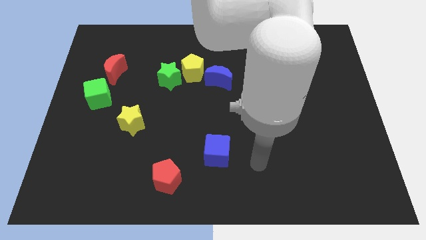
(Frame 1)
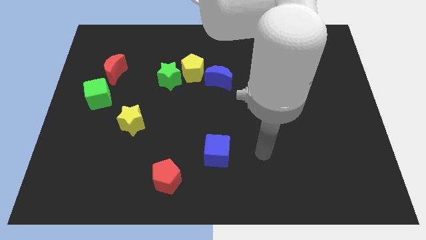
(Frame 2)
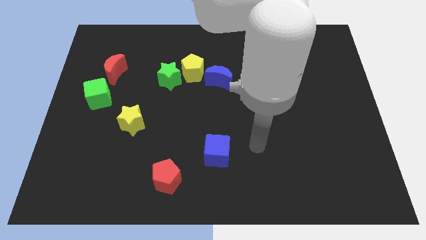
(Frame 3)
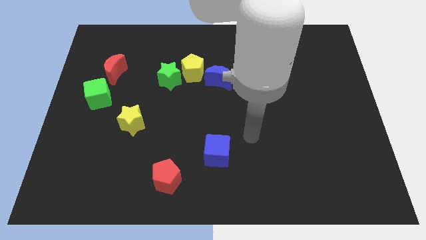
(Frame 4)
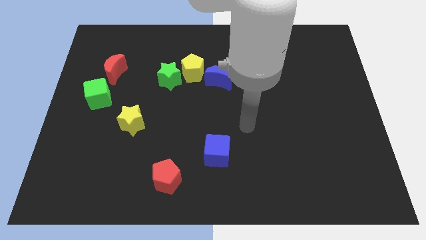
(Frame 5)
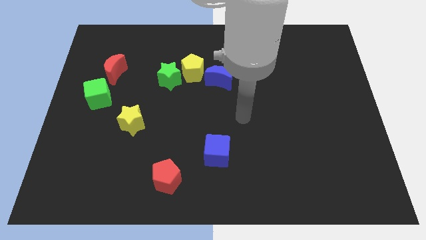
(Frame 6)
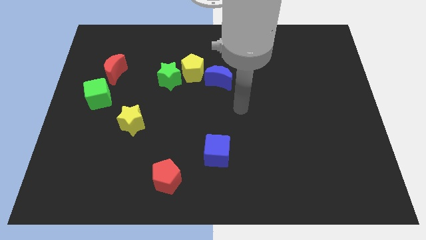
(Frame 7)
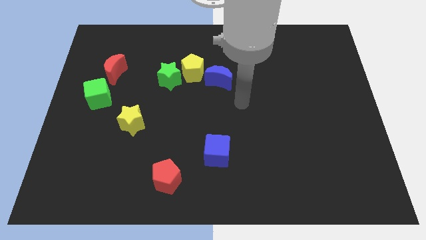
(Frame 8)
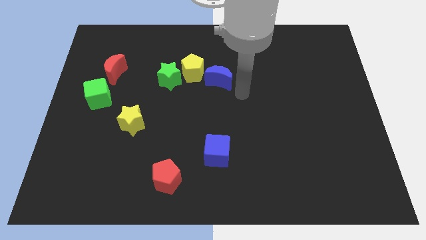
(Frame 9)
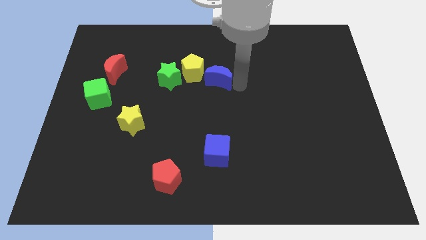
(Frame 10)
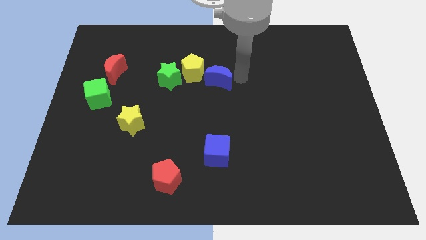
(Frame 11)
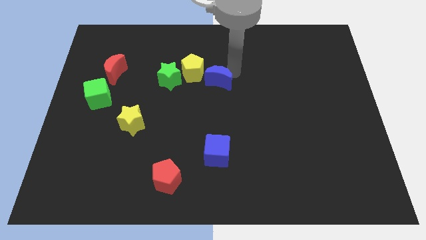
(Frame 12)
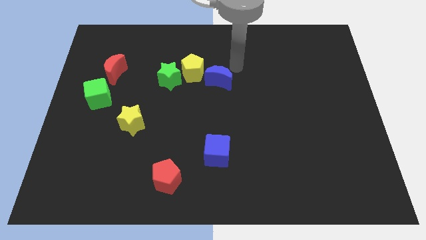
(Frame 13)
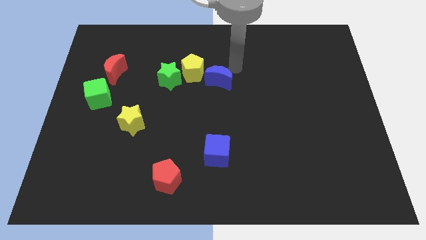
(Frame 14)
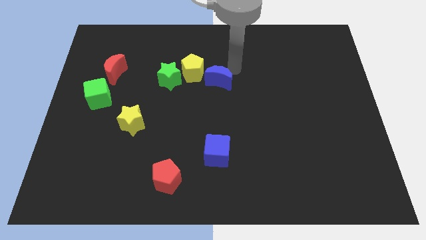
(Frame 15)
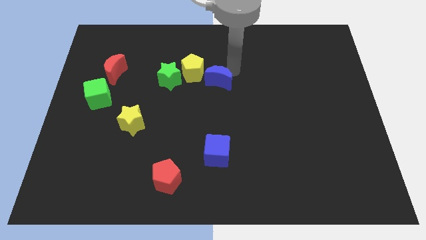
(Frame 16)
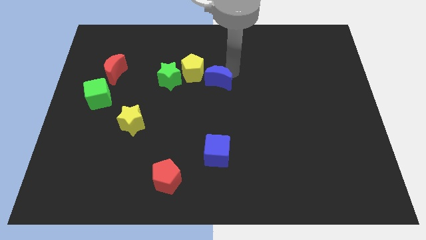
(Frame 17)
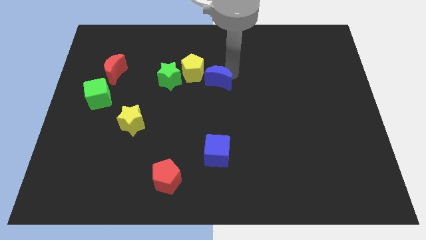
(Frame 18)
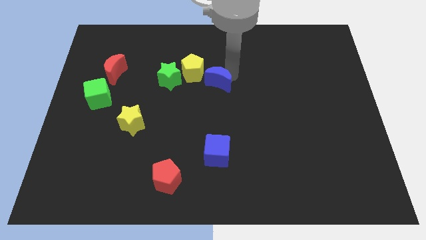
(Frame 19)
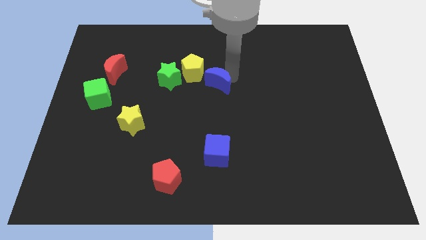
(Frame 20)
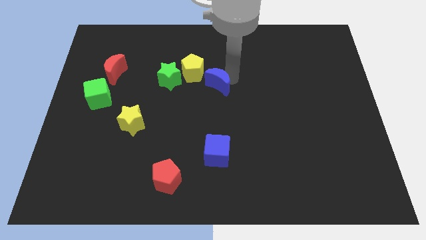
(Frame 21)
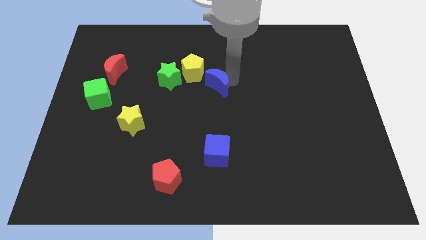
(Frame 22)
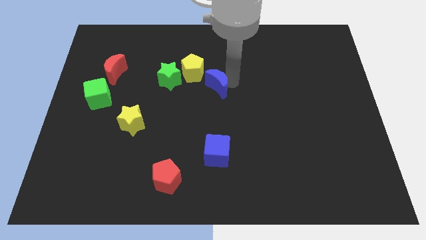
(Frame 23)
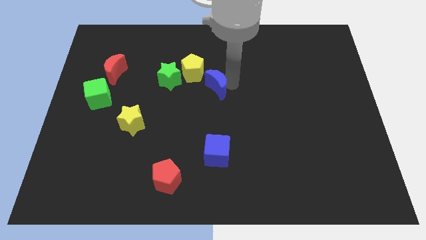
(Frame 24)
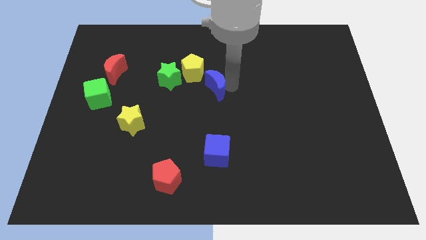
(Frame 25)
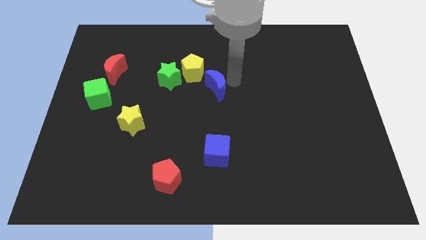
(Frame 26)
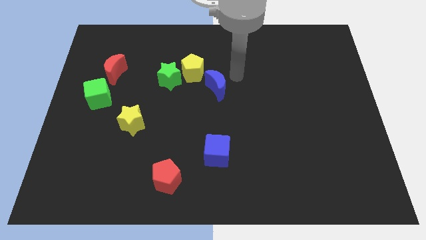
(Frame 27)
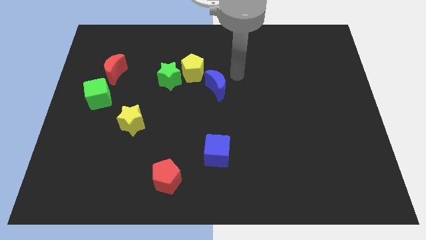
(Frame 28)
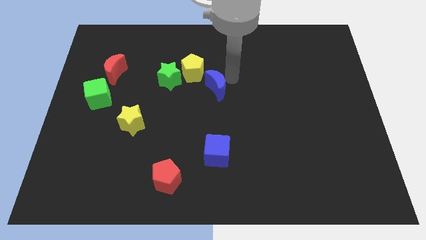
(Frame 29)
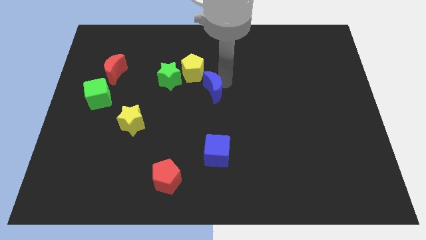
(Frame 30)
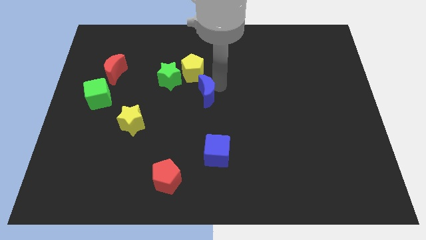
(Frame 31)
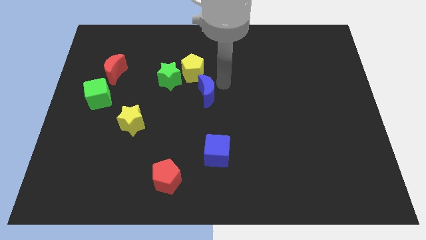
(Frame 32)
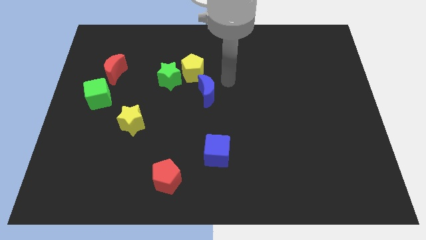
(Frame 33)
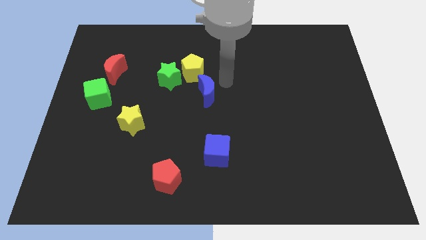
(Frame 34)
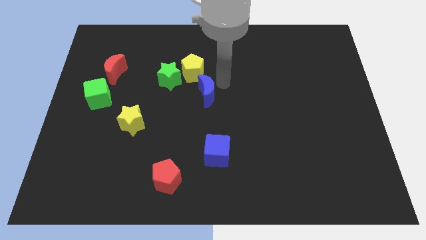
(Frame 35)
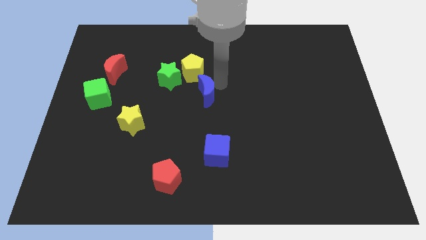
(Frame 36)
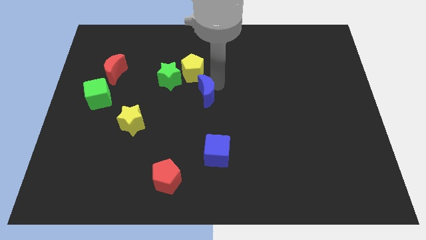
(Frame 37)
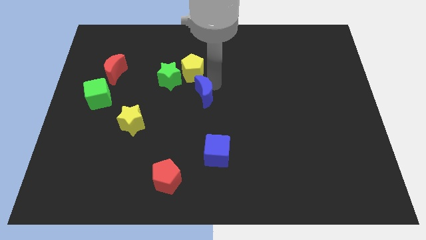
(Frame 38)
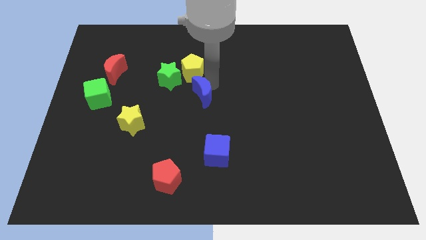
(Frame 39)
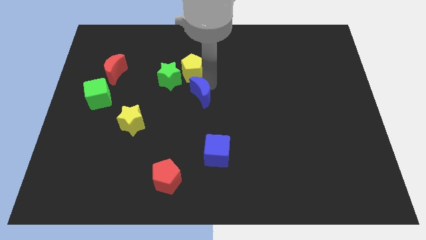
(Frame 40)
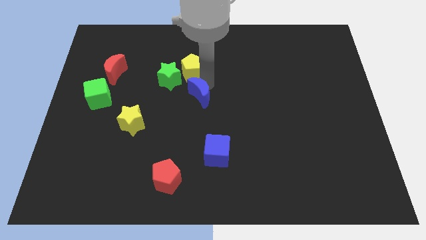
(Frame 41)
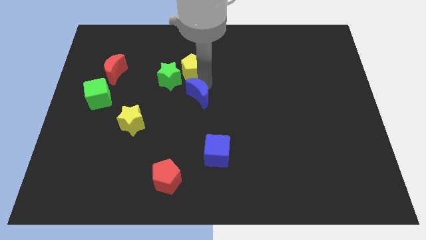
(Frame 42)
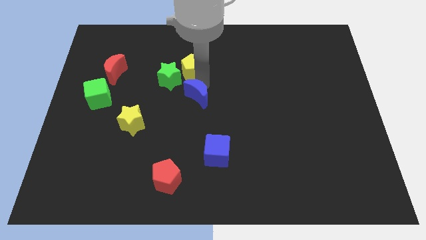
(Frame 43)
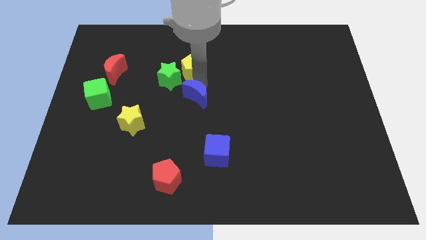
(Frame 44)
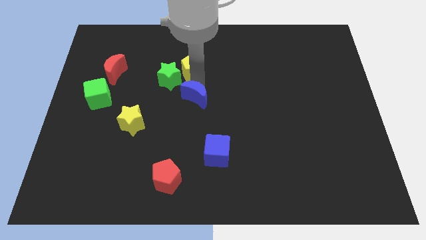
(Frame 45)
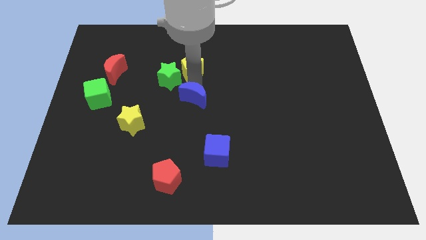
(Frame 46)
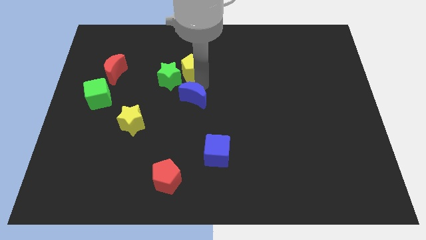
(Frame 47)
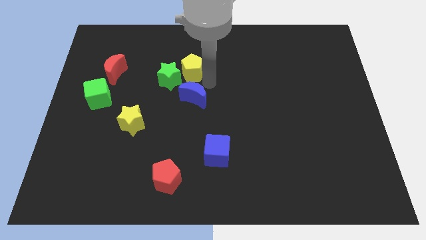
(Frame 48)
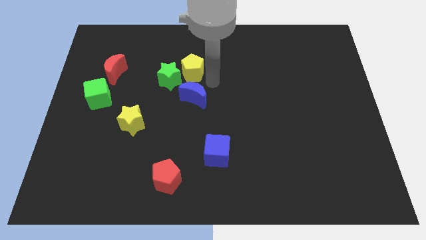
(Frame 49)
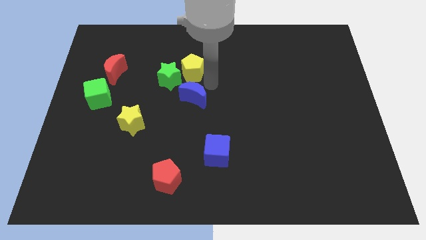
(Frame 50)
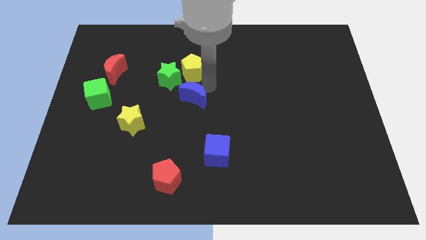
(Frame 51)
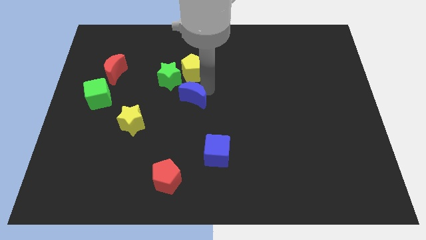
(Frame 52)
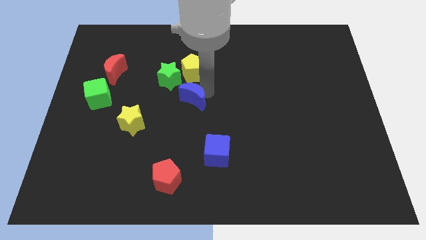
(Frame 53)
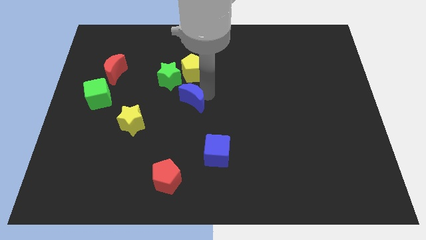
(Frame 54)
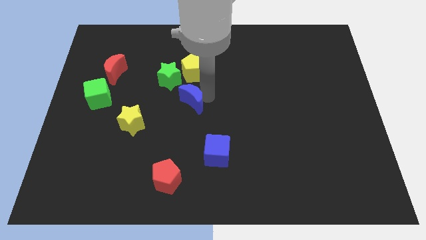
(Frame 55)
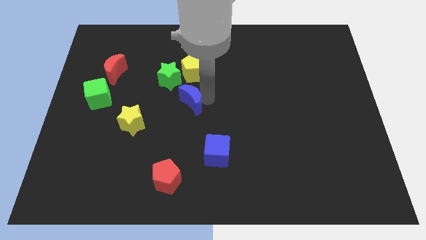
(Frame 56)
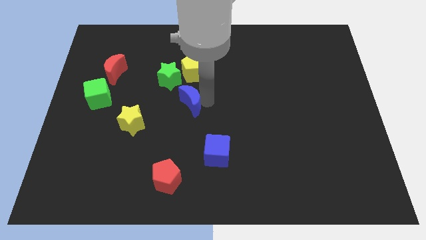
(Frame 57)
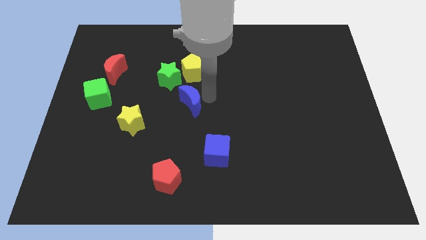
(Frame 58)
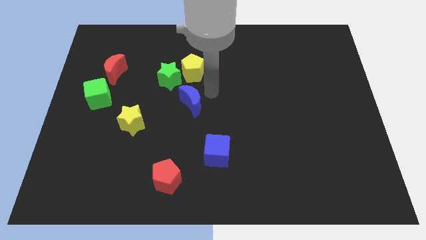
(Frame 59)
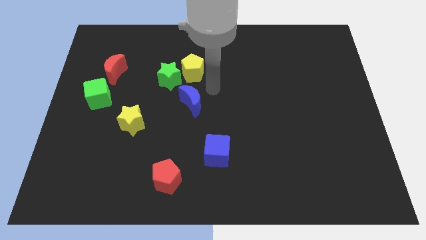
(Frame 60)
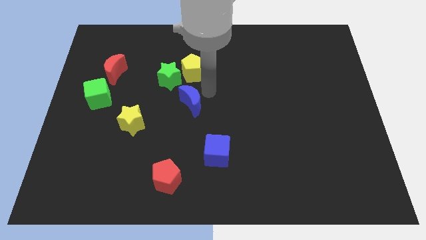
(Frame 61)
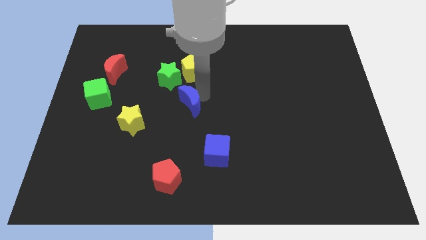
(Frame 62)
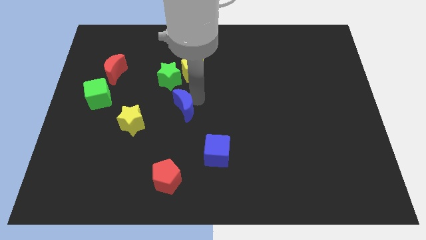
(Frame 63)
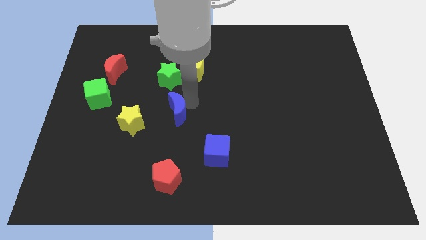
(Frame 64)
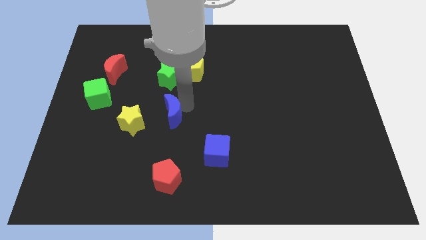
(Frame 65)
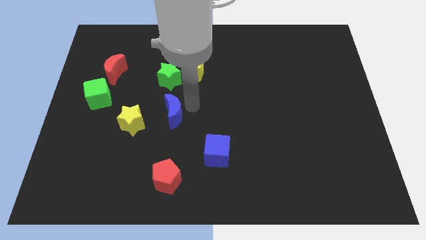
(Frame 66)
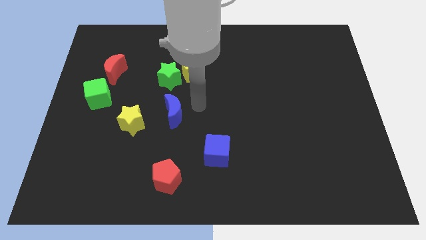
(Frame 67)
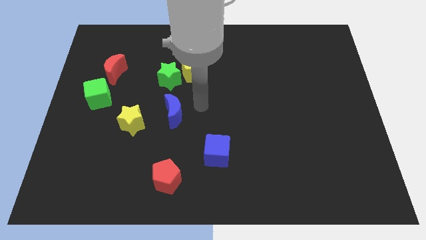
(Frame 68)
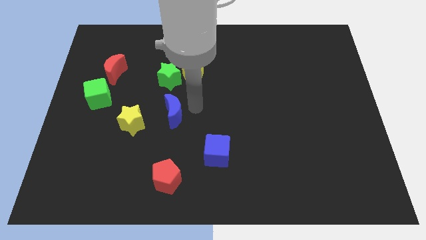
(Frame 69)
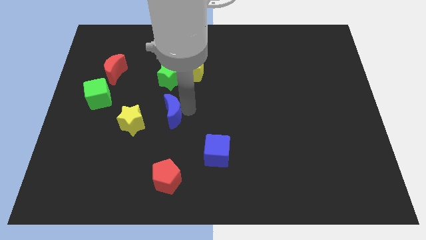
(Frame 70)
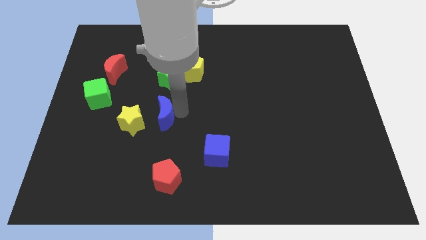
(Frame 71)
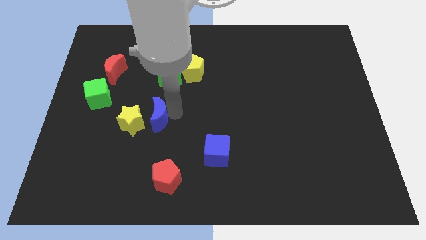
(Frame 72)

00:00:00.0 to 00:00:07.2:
put the blue moon next to the yellow star
